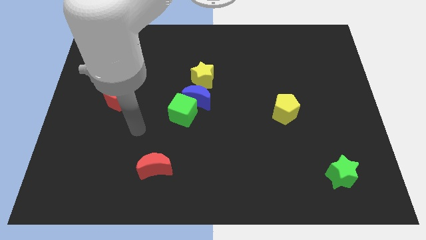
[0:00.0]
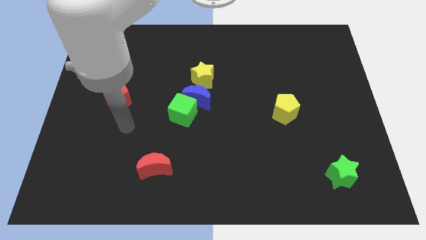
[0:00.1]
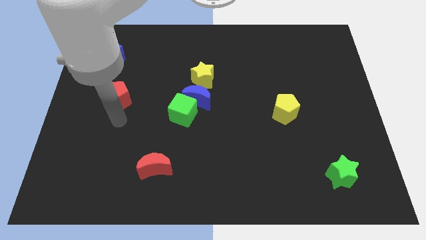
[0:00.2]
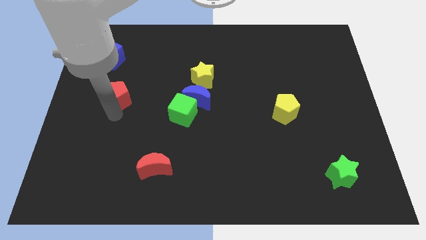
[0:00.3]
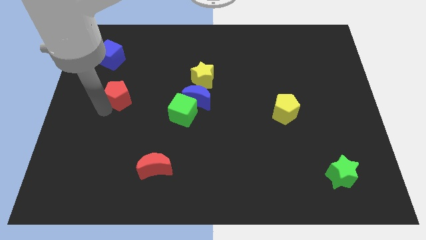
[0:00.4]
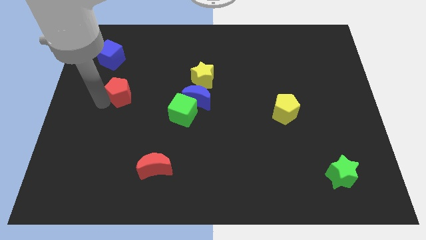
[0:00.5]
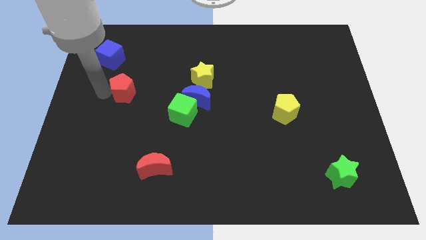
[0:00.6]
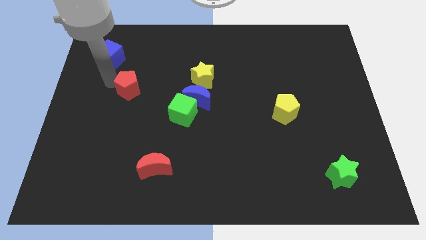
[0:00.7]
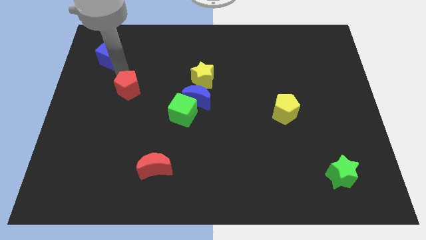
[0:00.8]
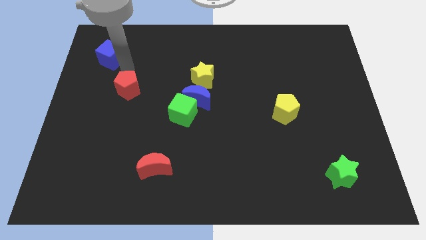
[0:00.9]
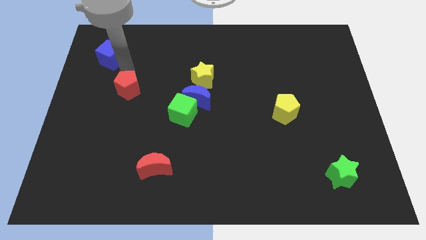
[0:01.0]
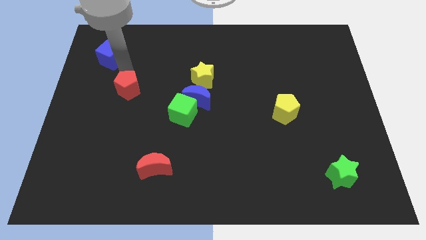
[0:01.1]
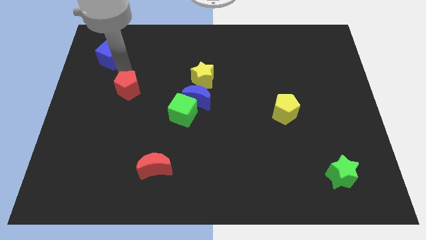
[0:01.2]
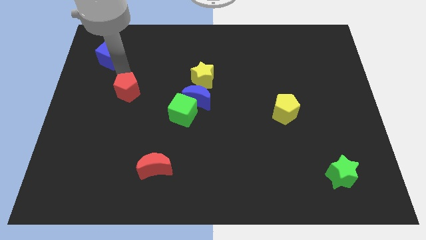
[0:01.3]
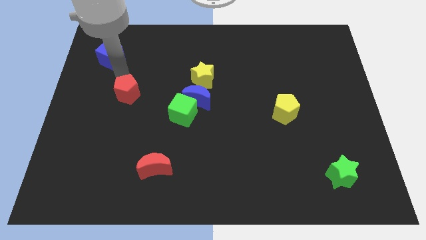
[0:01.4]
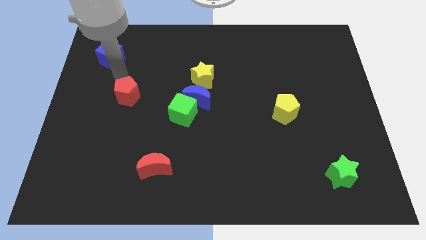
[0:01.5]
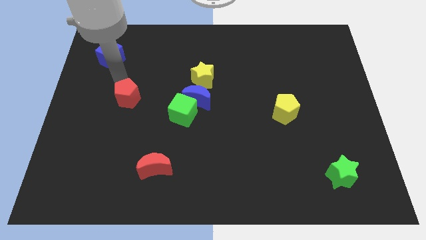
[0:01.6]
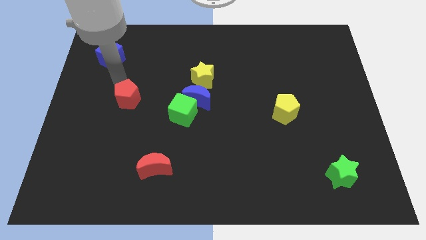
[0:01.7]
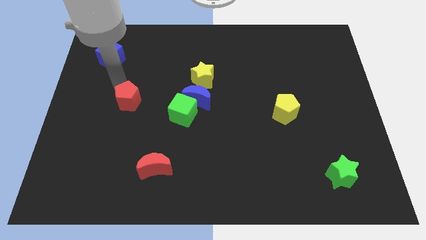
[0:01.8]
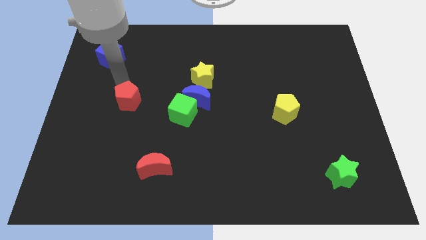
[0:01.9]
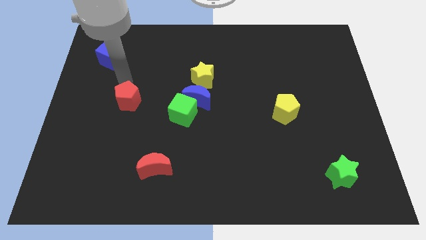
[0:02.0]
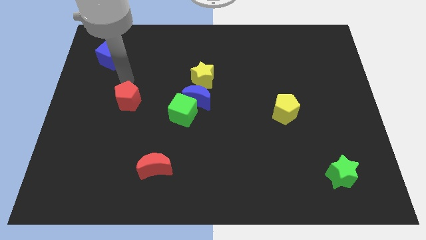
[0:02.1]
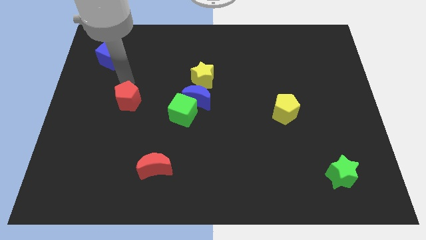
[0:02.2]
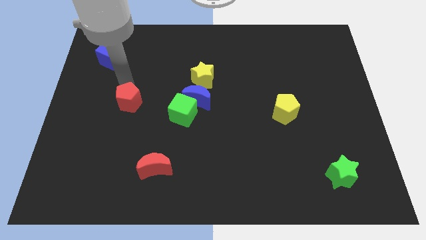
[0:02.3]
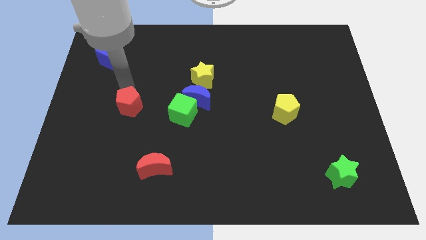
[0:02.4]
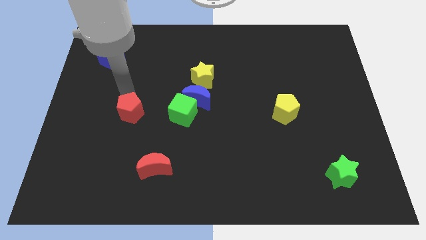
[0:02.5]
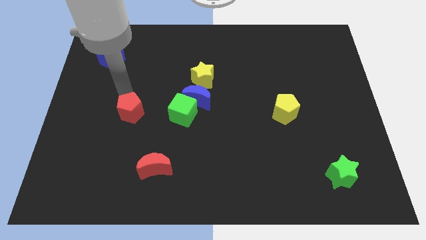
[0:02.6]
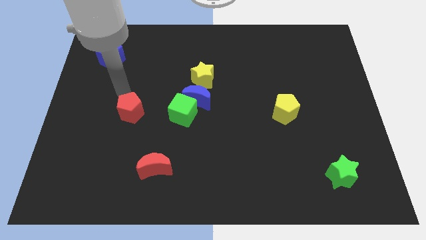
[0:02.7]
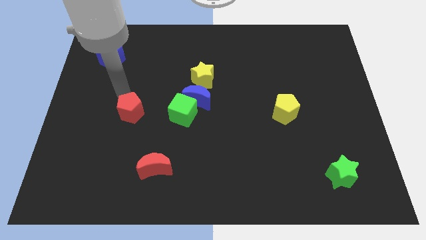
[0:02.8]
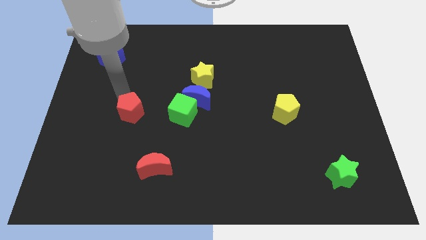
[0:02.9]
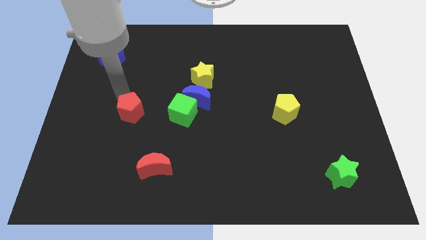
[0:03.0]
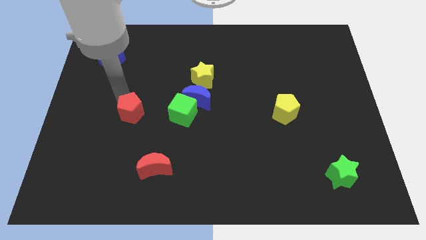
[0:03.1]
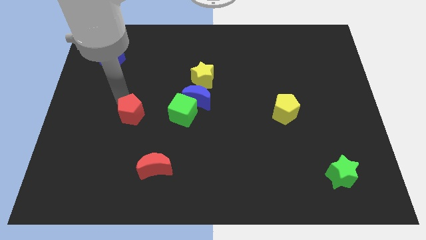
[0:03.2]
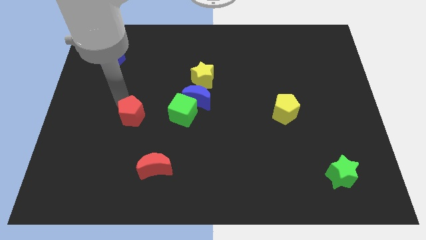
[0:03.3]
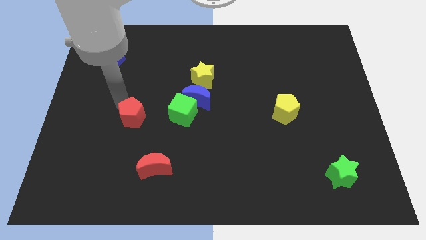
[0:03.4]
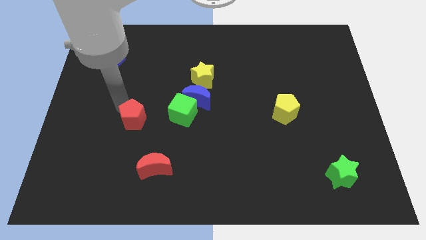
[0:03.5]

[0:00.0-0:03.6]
slightly push the red pentagon down and right diagonally

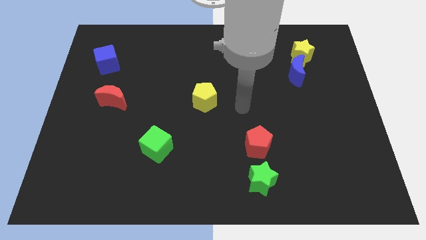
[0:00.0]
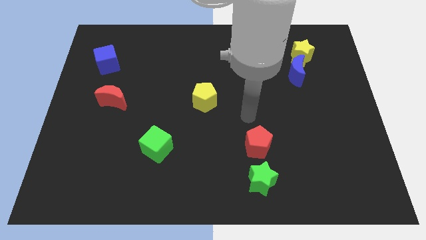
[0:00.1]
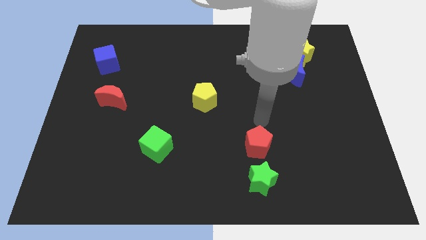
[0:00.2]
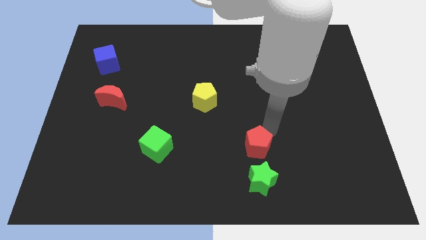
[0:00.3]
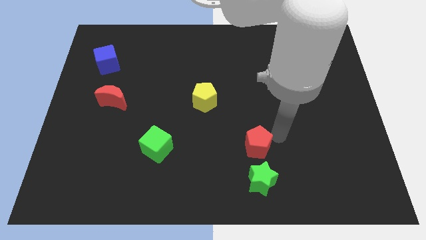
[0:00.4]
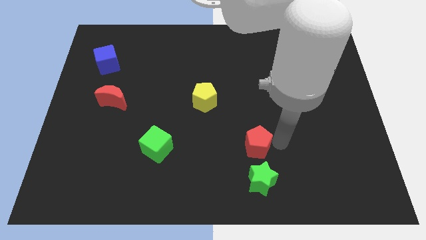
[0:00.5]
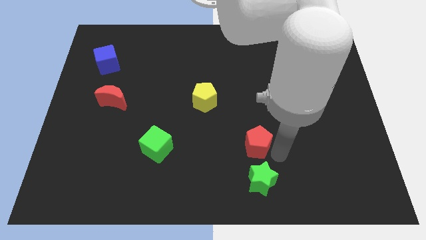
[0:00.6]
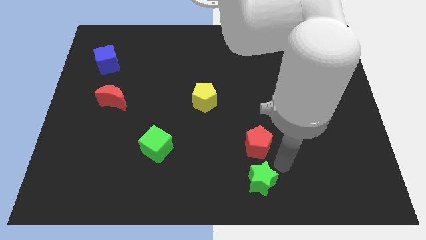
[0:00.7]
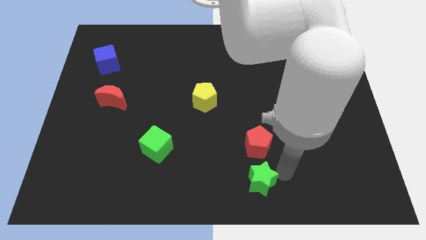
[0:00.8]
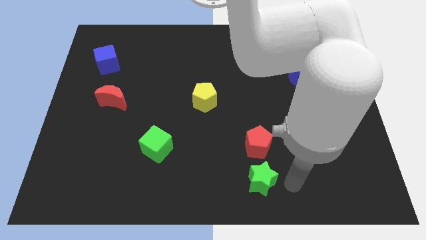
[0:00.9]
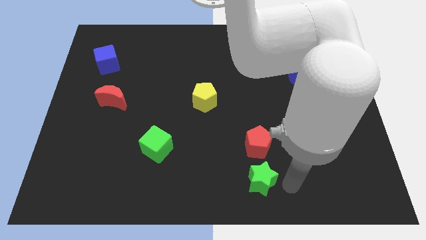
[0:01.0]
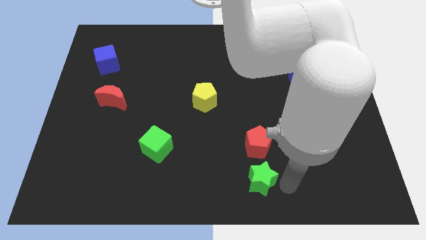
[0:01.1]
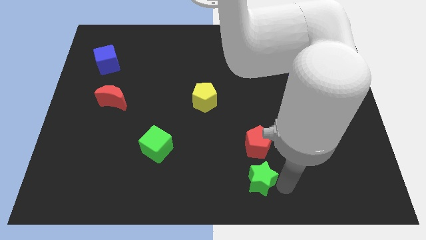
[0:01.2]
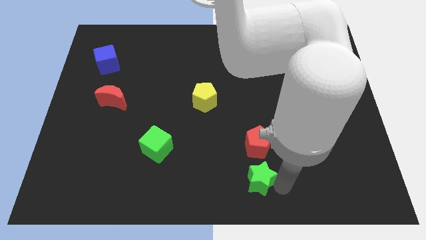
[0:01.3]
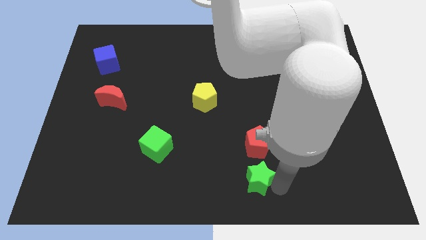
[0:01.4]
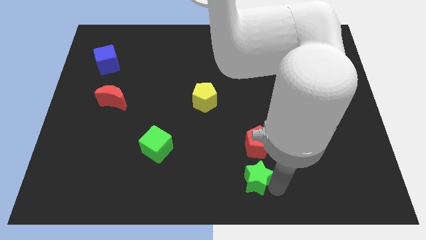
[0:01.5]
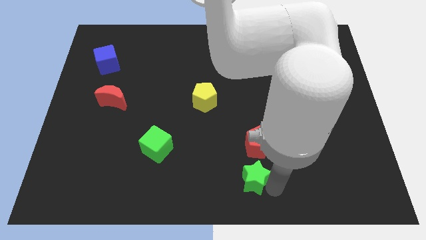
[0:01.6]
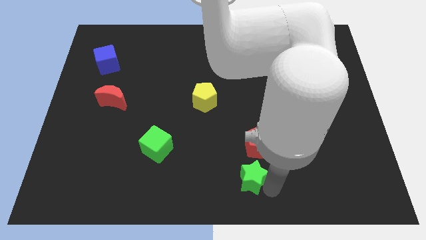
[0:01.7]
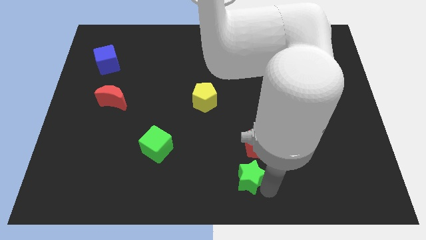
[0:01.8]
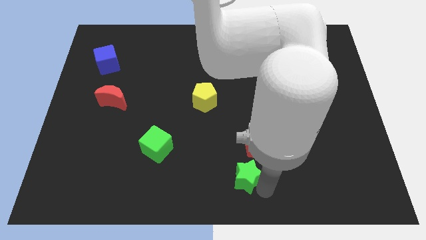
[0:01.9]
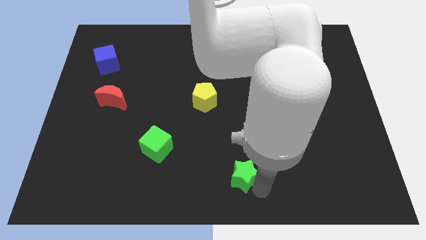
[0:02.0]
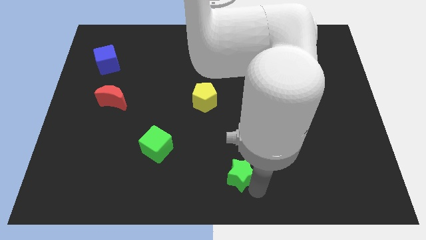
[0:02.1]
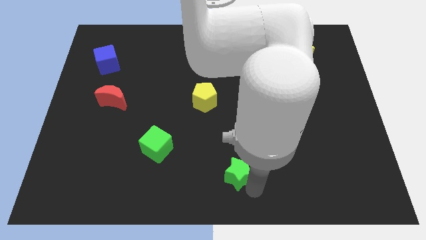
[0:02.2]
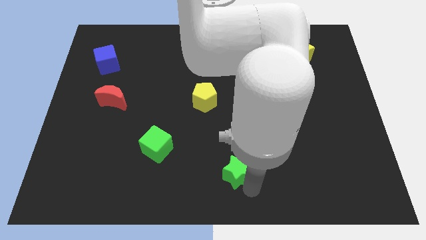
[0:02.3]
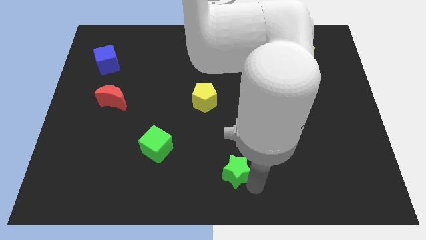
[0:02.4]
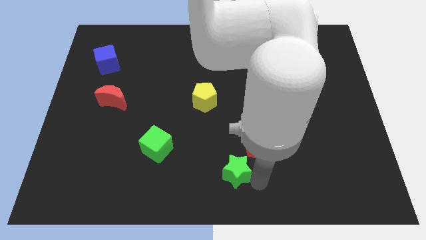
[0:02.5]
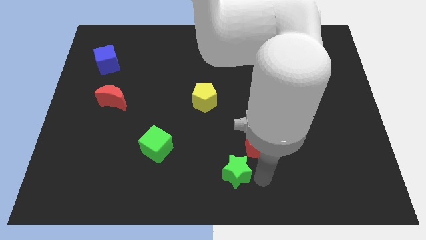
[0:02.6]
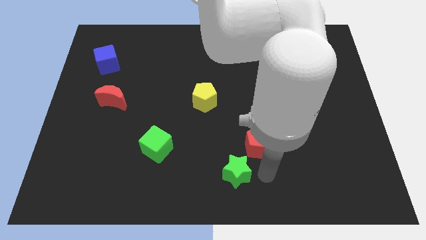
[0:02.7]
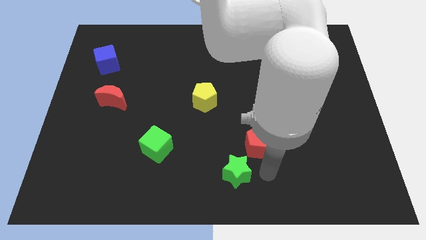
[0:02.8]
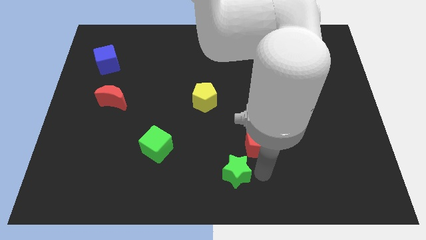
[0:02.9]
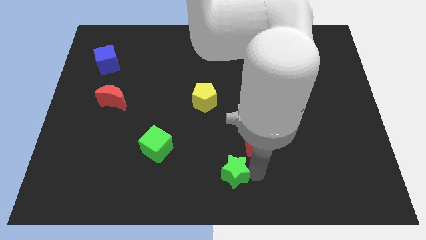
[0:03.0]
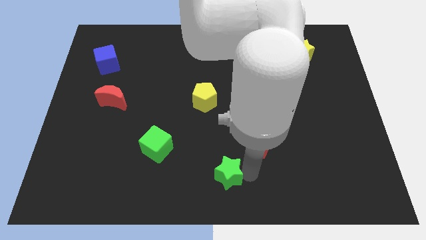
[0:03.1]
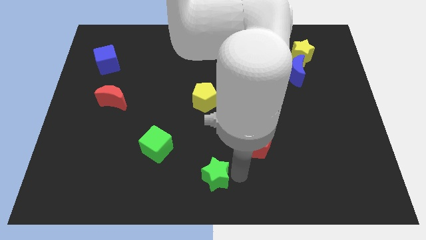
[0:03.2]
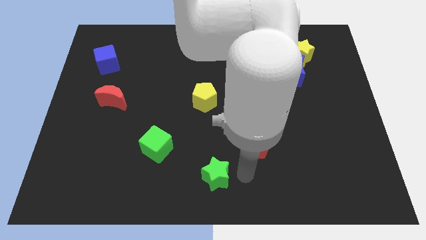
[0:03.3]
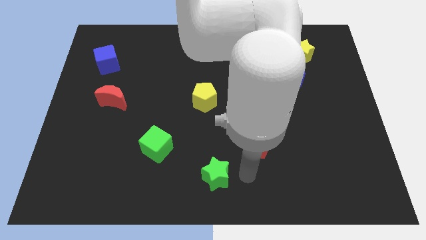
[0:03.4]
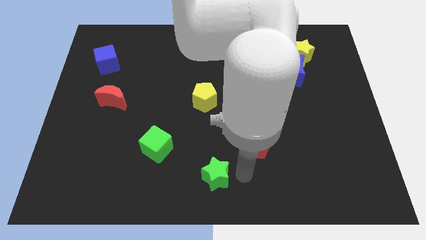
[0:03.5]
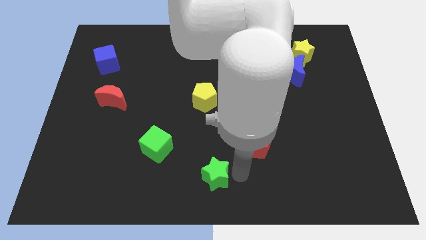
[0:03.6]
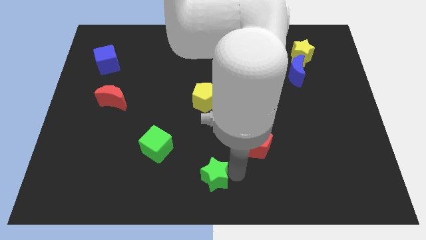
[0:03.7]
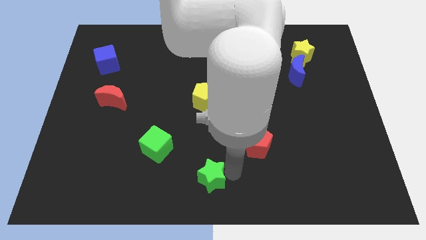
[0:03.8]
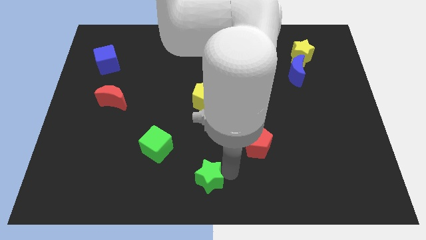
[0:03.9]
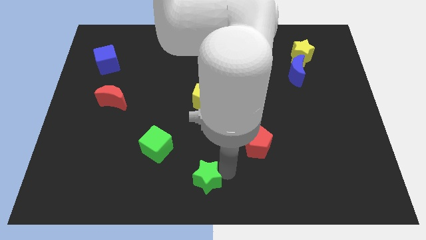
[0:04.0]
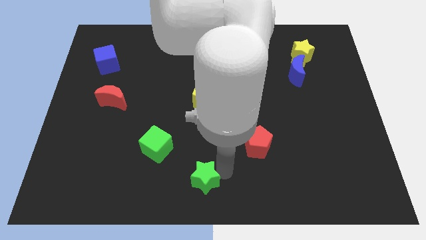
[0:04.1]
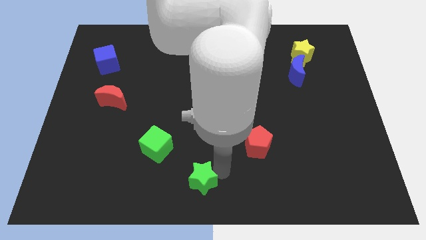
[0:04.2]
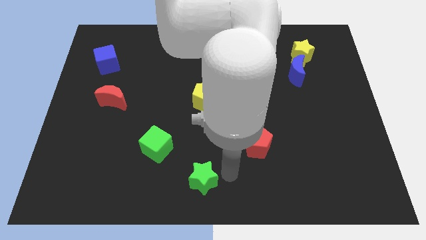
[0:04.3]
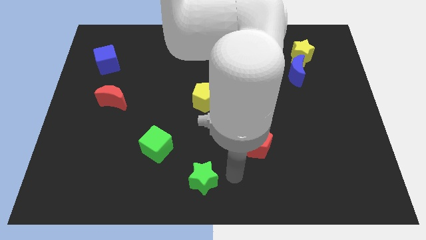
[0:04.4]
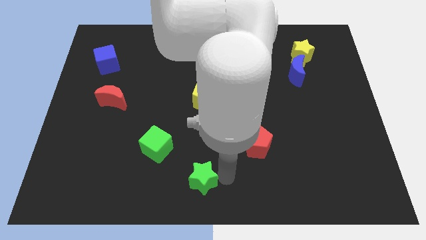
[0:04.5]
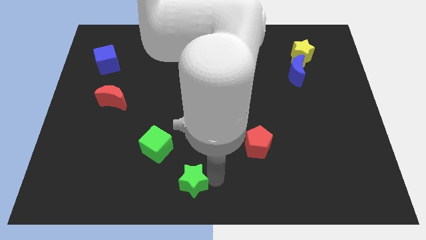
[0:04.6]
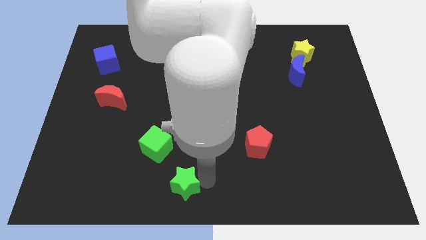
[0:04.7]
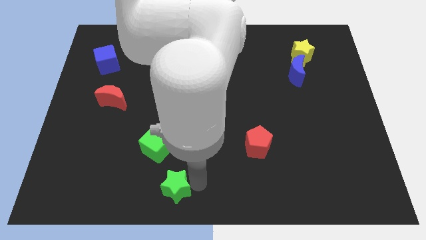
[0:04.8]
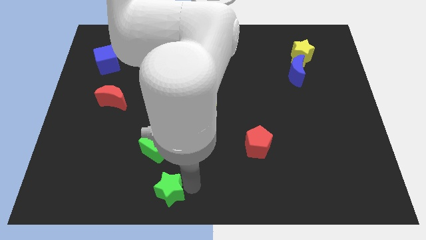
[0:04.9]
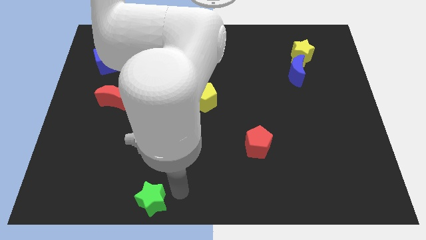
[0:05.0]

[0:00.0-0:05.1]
push the green star left

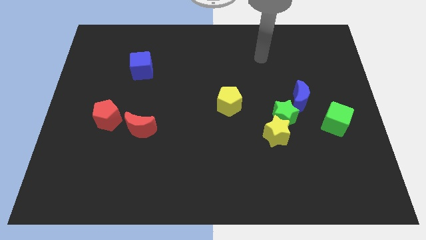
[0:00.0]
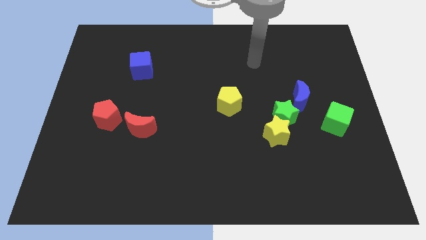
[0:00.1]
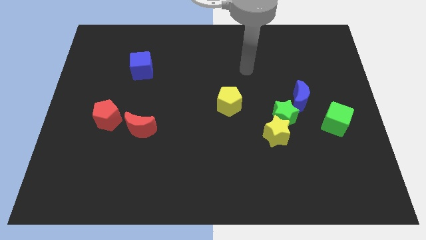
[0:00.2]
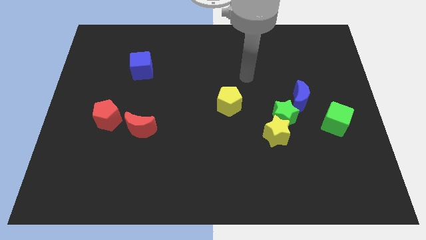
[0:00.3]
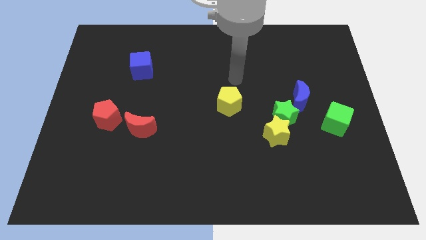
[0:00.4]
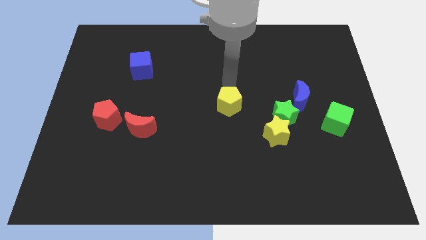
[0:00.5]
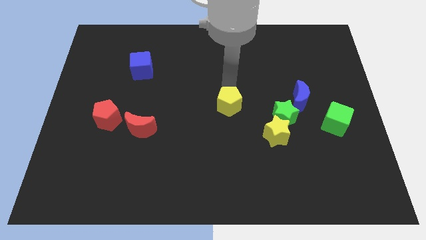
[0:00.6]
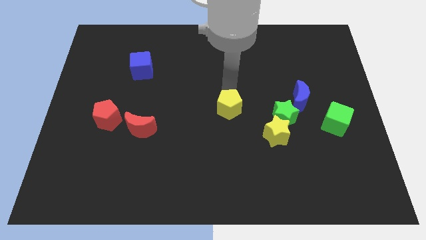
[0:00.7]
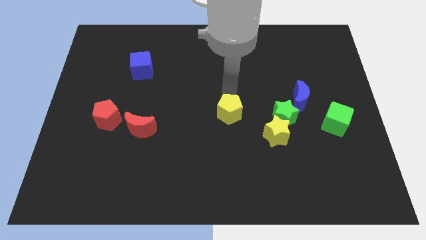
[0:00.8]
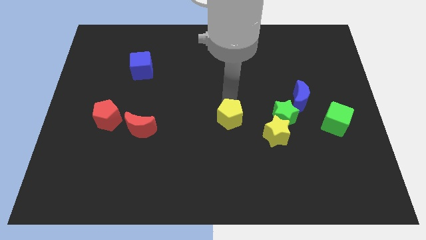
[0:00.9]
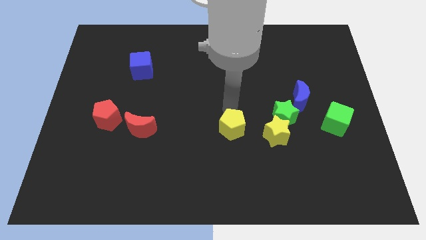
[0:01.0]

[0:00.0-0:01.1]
slightly move the yellow pentagon down
